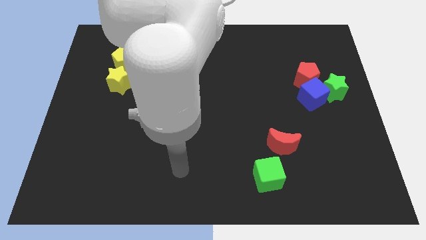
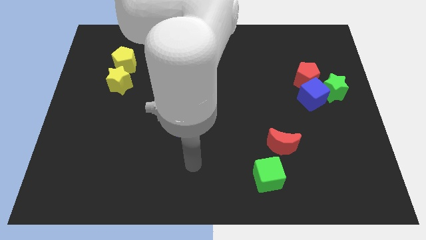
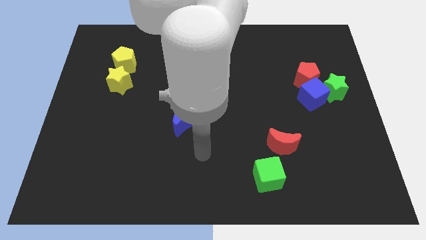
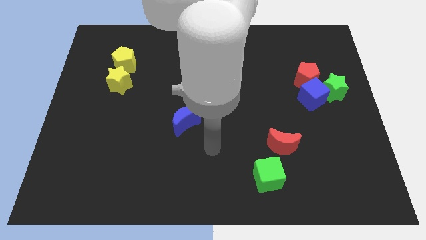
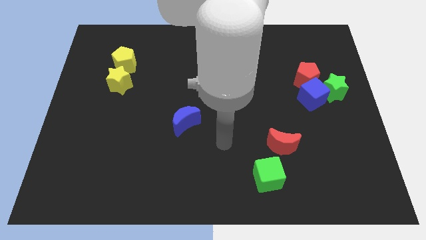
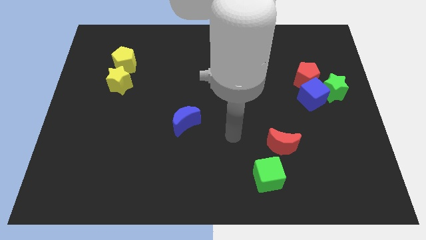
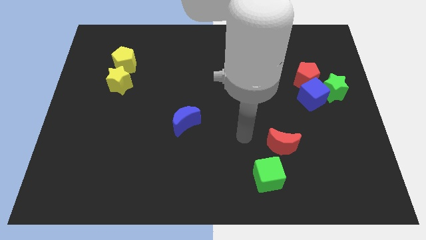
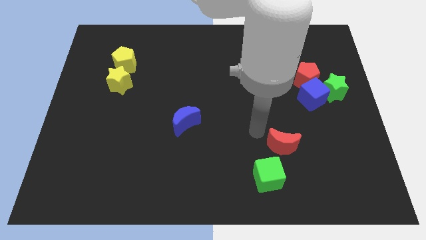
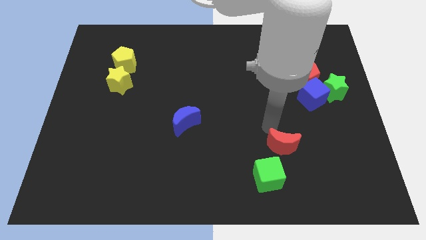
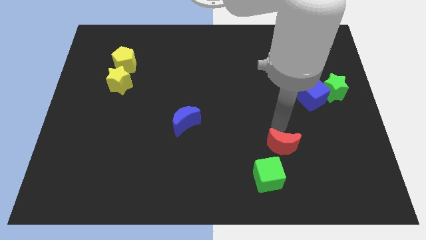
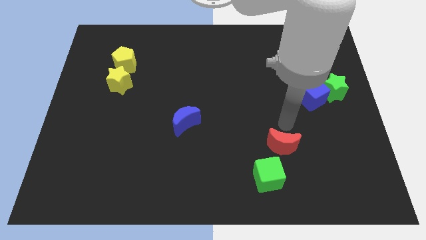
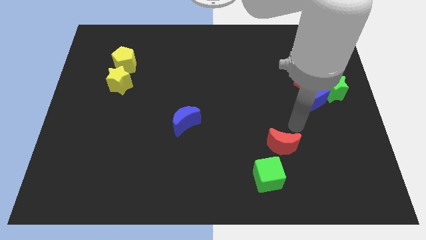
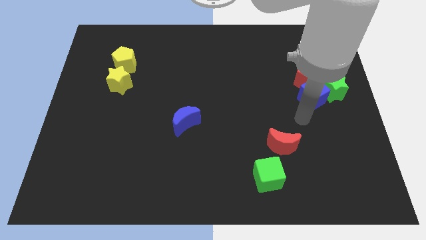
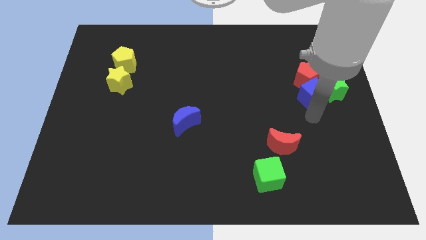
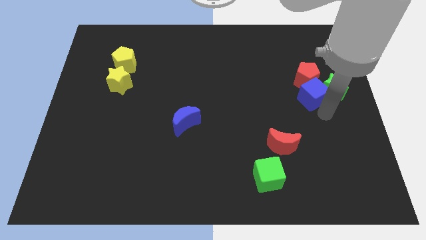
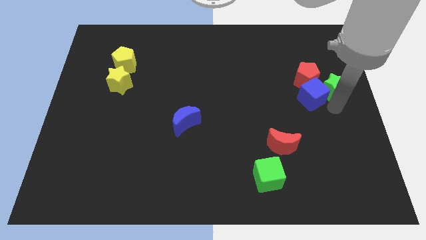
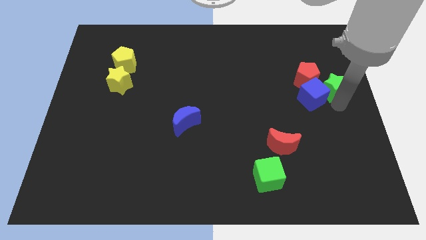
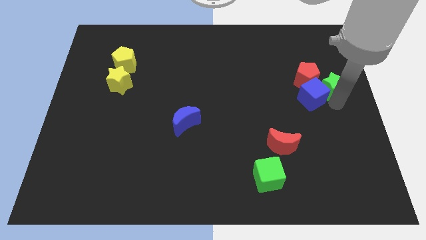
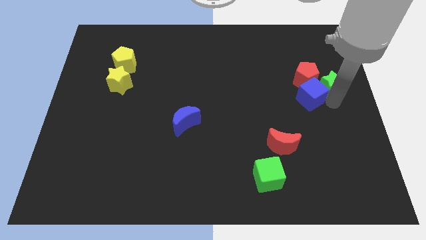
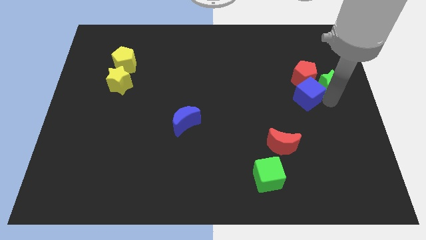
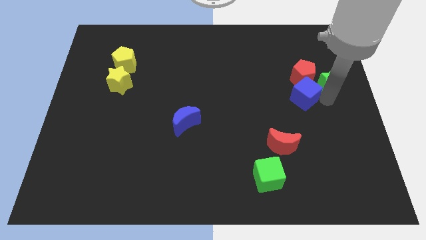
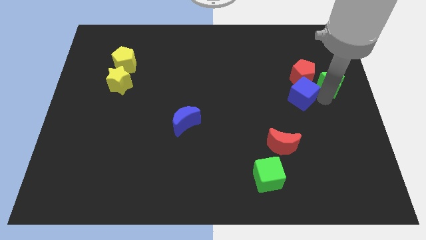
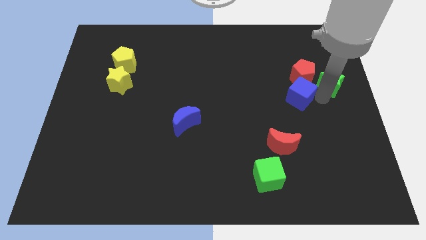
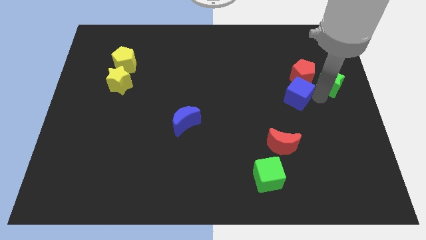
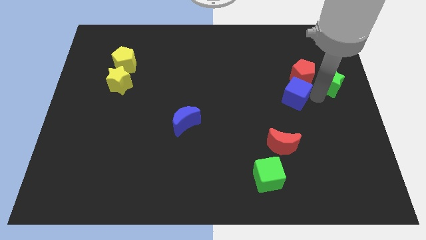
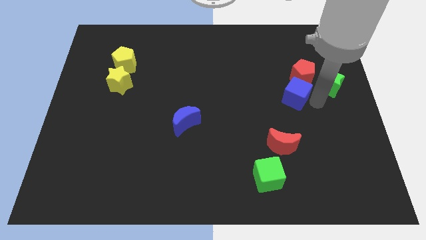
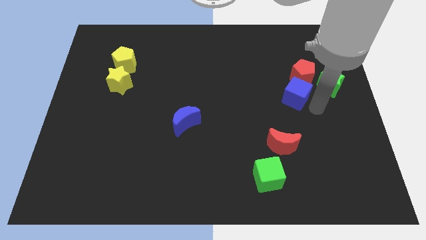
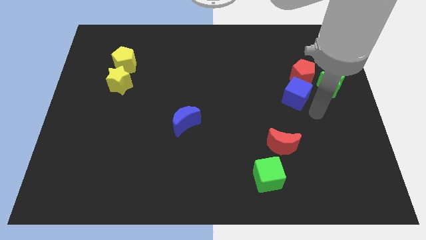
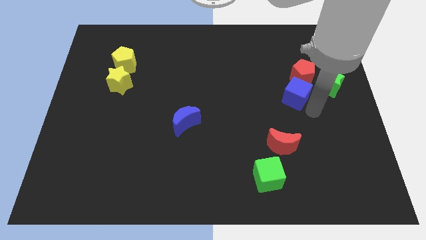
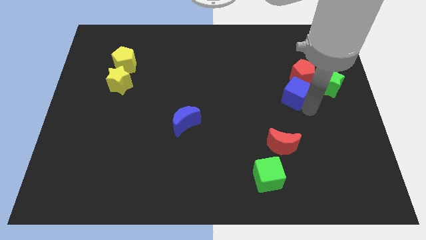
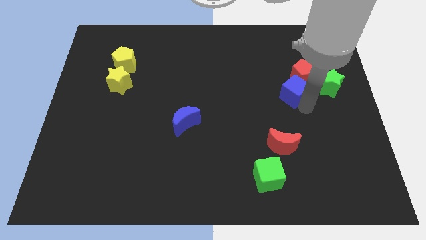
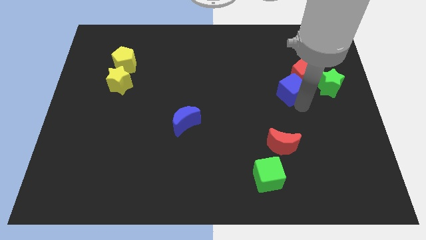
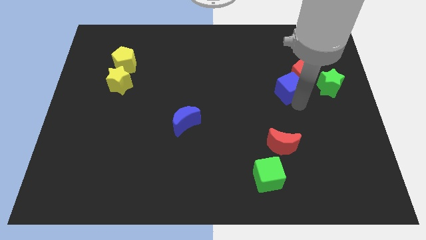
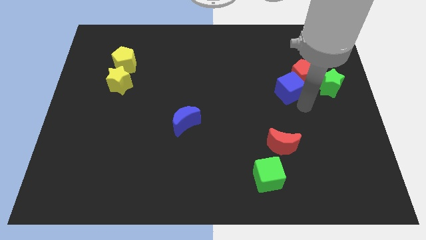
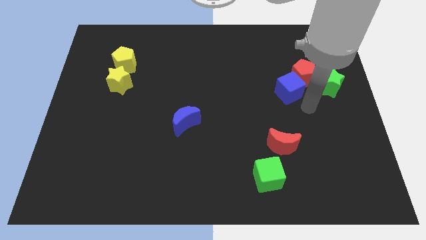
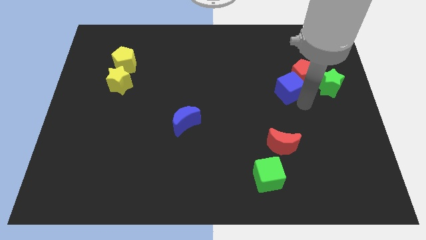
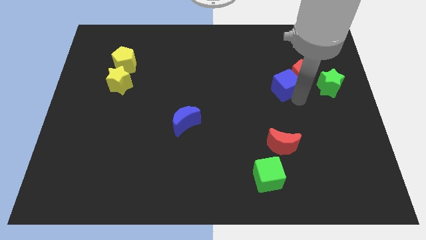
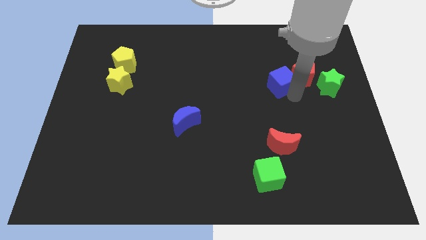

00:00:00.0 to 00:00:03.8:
slide the blue cube up and left diagonally slightly

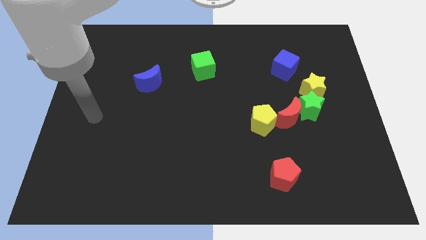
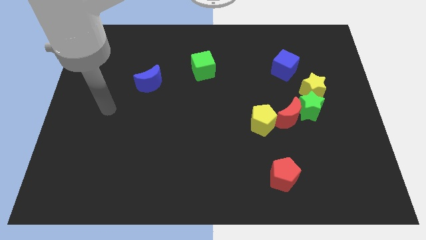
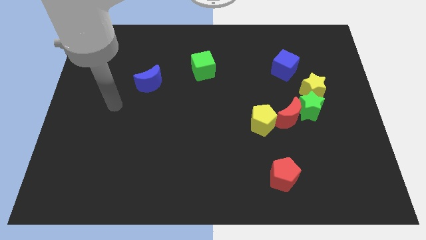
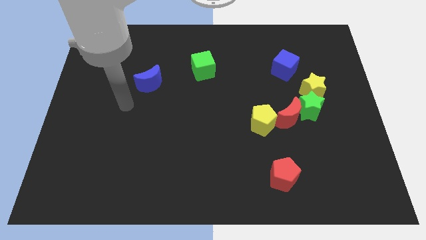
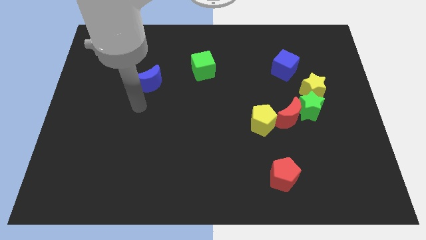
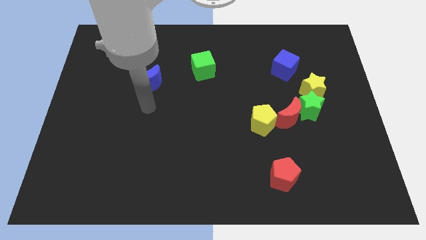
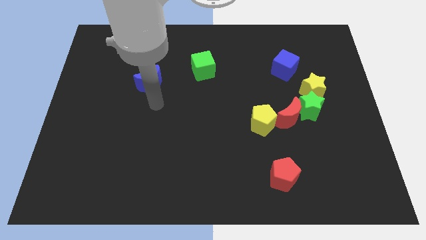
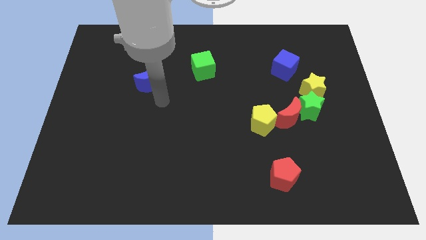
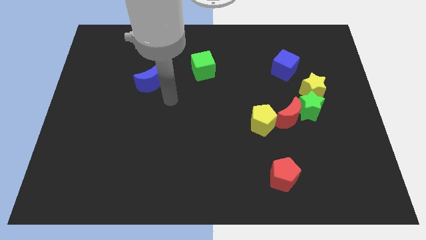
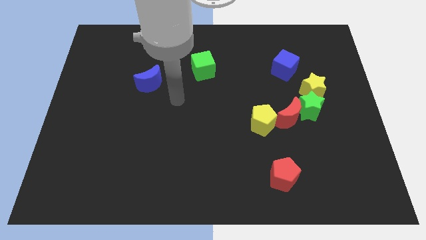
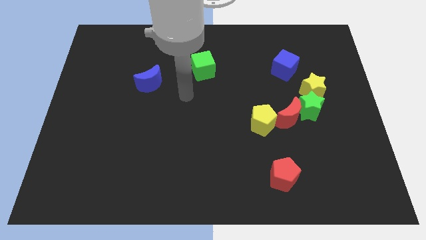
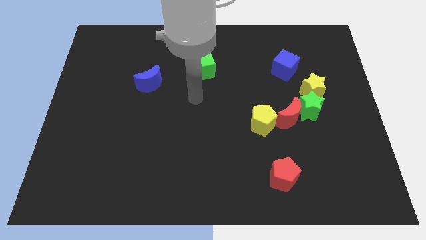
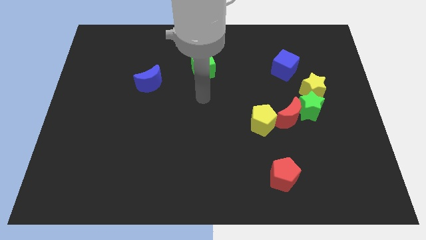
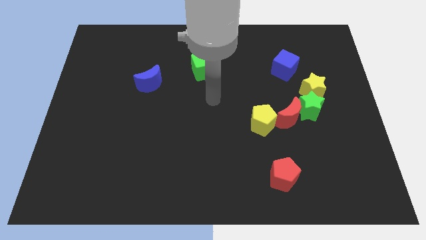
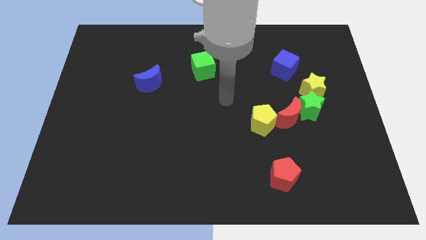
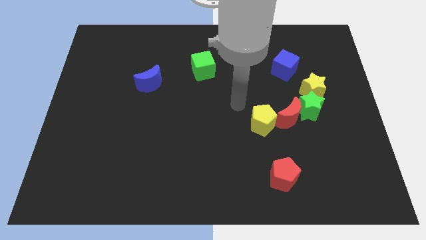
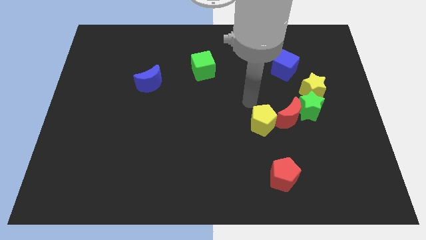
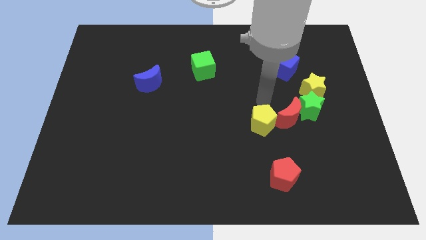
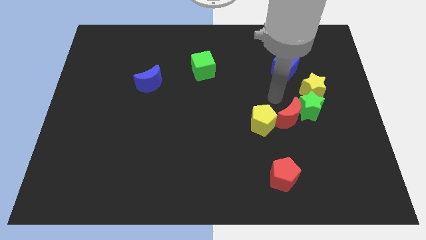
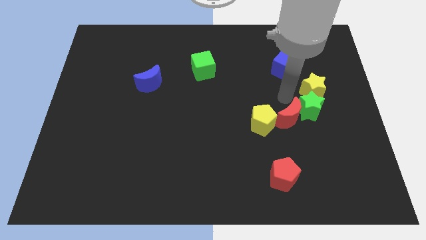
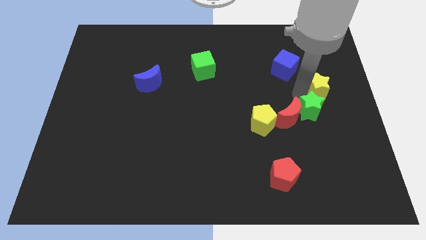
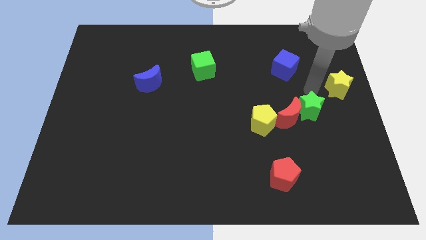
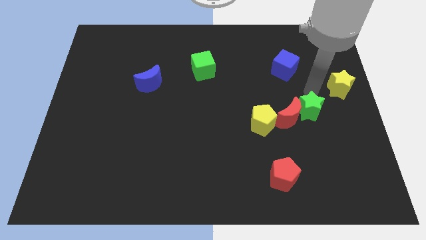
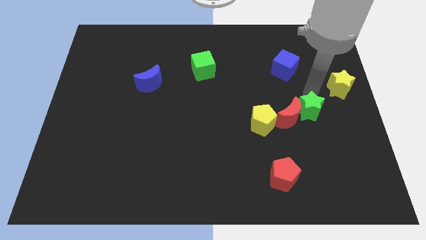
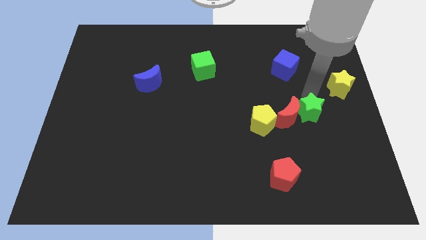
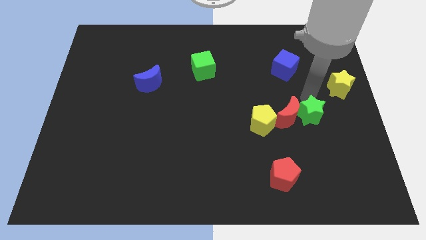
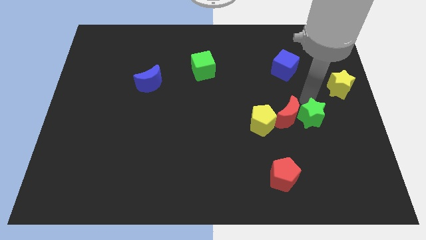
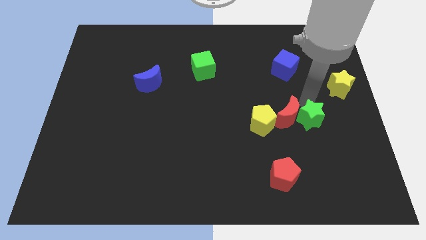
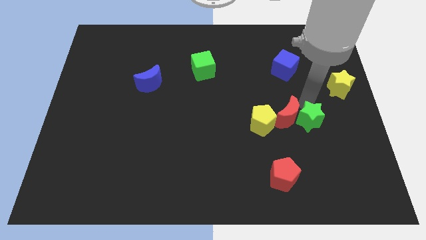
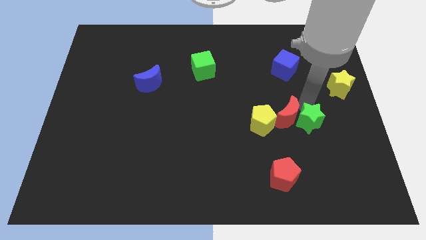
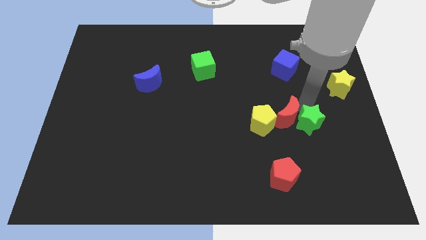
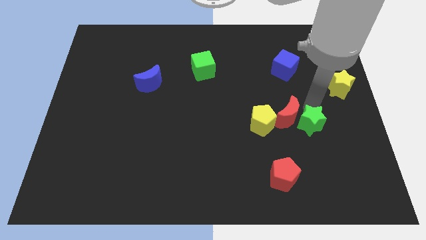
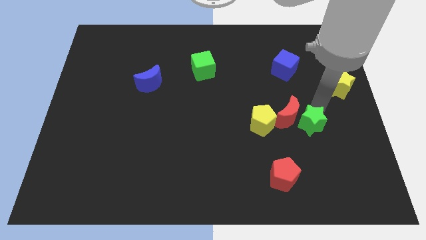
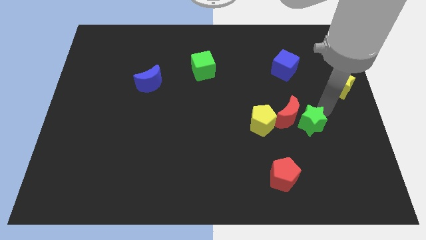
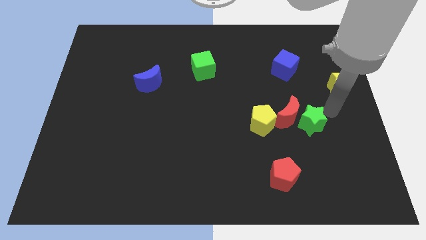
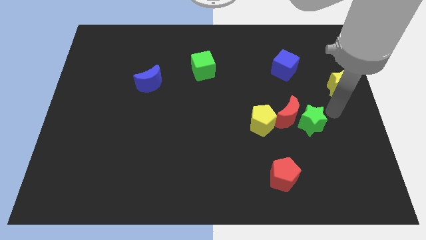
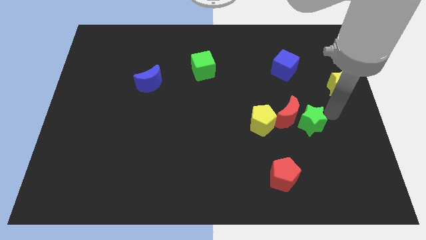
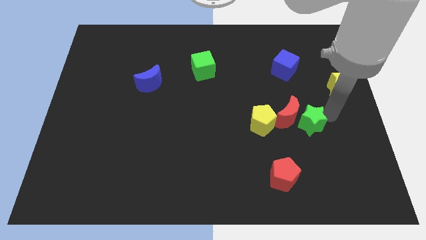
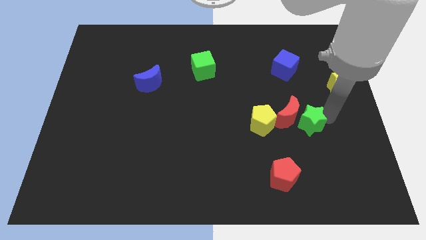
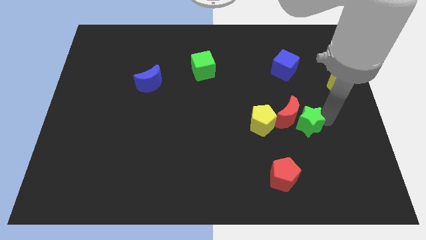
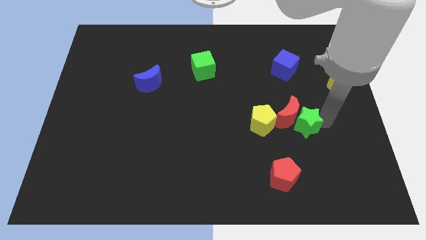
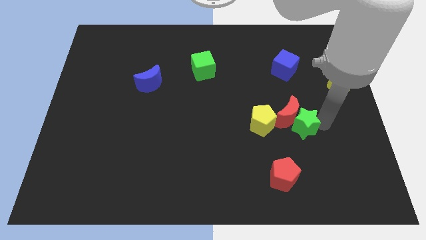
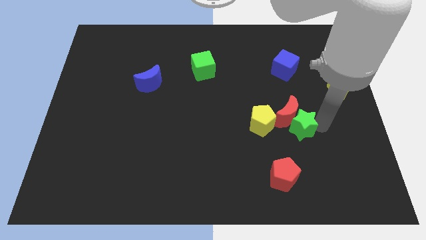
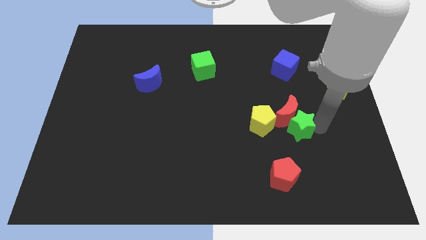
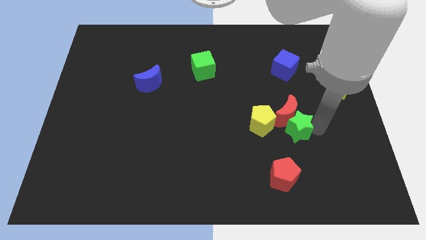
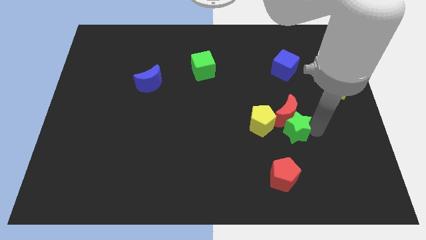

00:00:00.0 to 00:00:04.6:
slightly slide the green star diagonally downwards and to the left

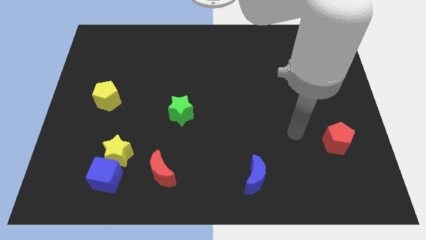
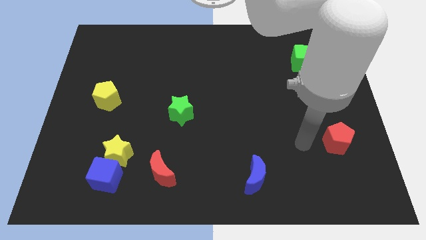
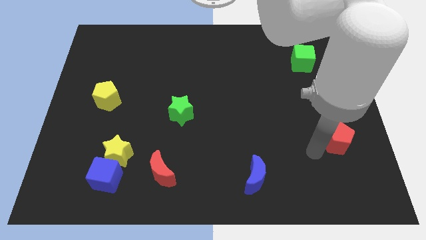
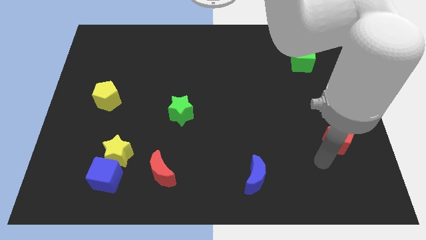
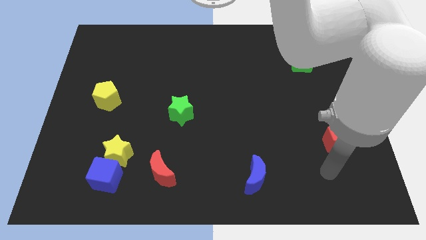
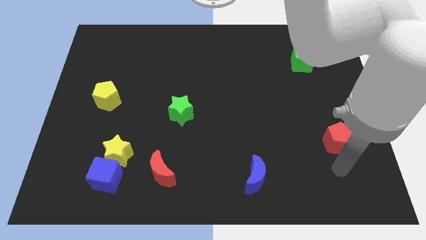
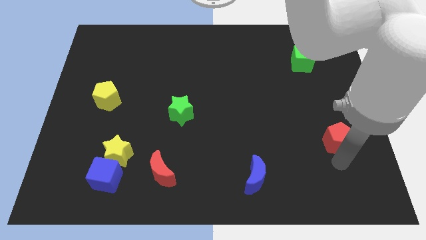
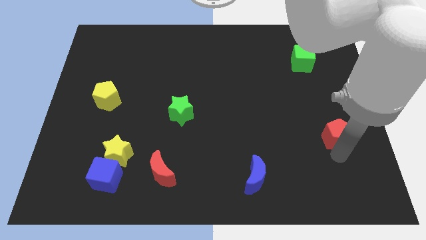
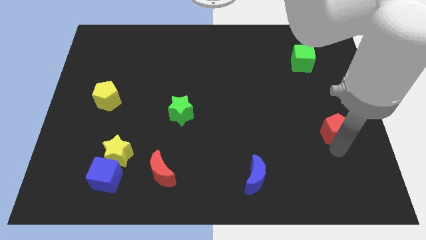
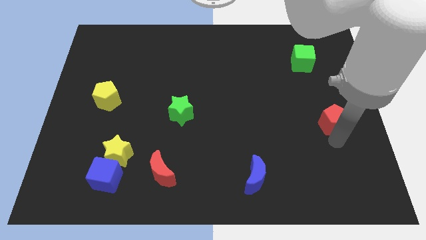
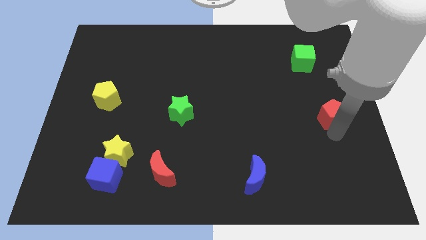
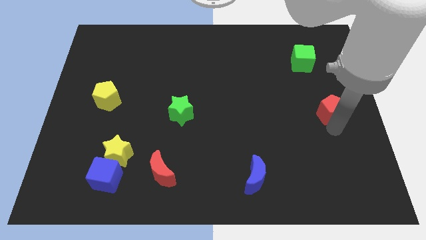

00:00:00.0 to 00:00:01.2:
slide the red pentagon a little up
